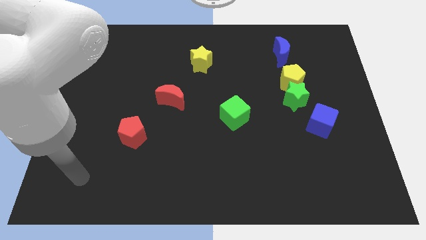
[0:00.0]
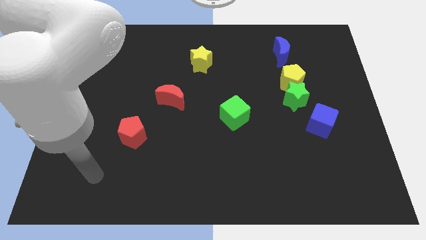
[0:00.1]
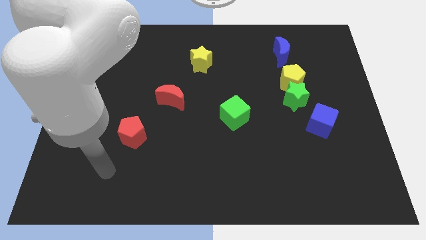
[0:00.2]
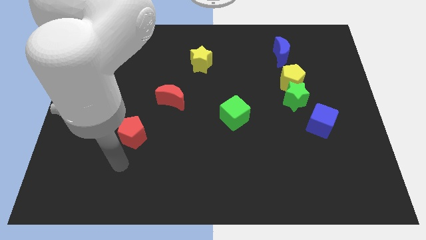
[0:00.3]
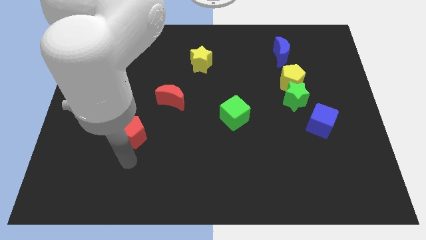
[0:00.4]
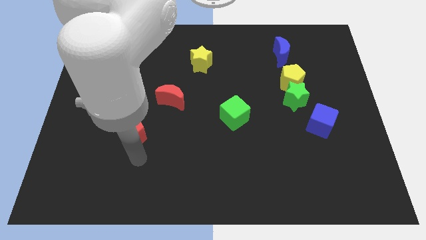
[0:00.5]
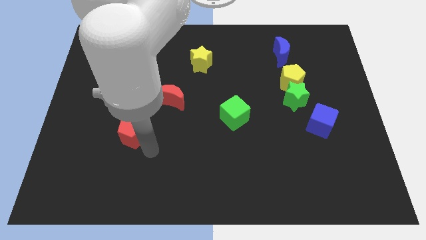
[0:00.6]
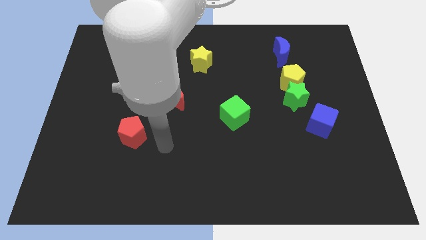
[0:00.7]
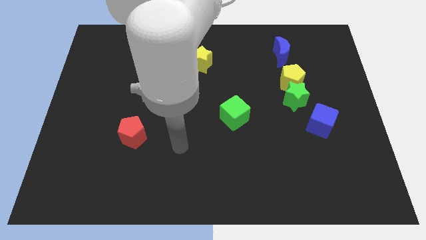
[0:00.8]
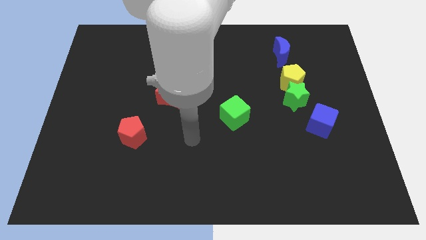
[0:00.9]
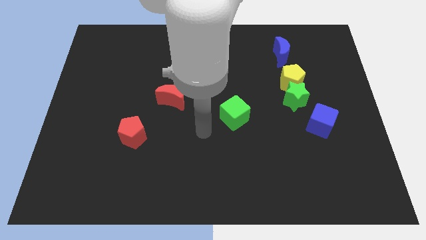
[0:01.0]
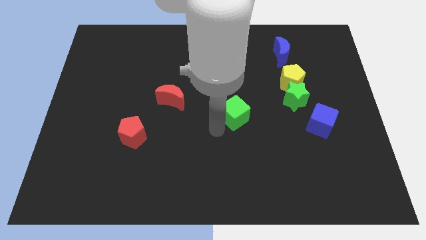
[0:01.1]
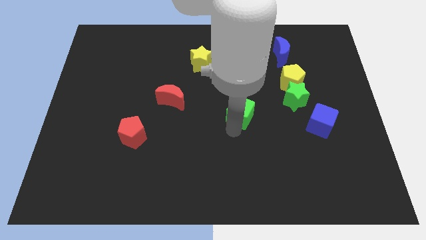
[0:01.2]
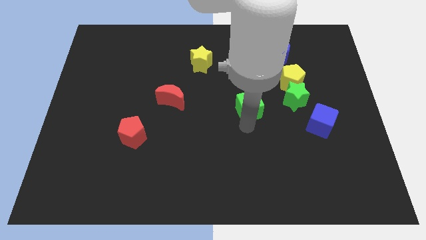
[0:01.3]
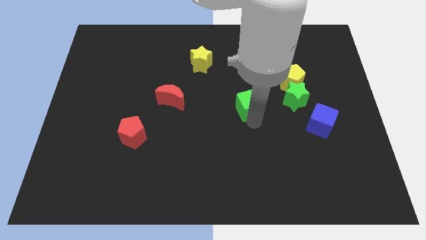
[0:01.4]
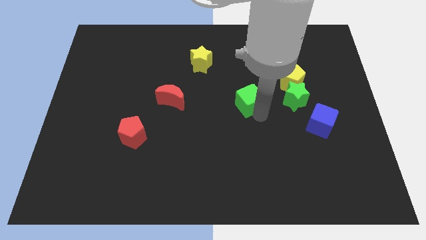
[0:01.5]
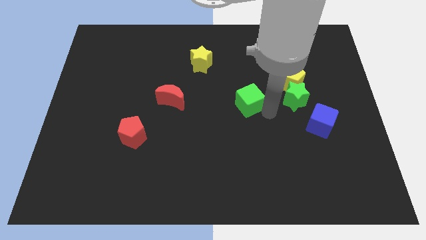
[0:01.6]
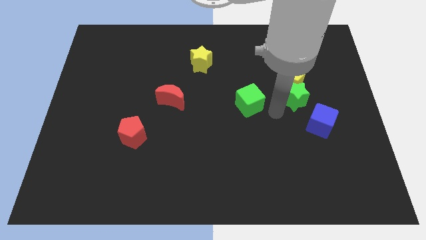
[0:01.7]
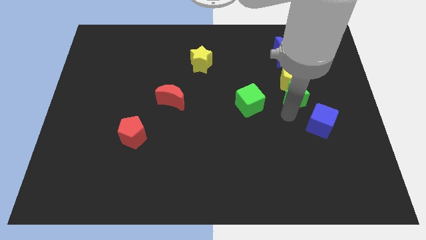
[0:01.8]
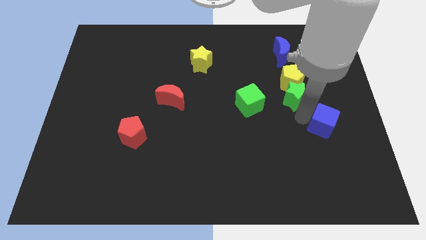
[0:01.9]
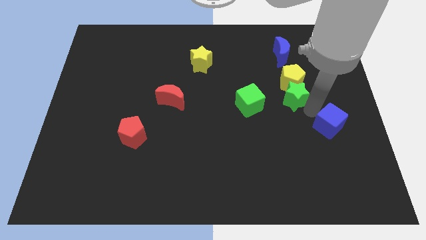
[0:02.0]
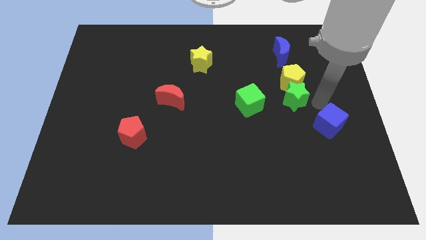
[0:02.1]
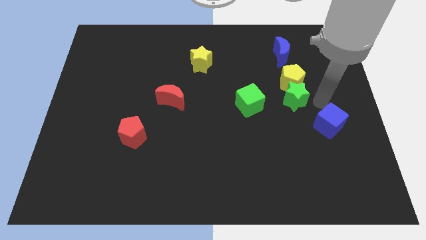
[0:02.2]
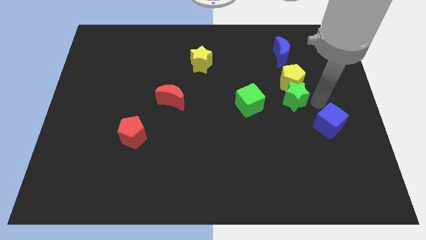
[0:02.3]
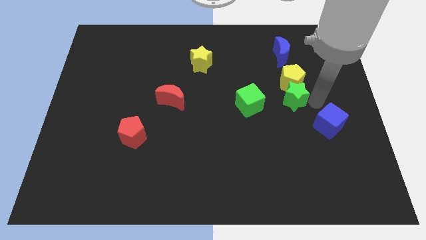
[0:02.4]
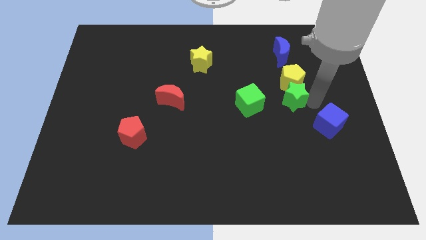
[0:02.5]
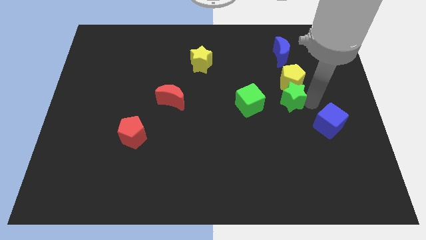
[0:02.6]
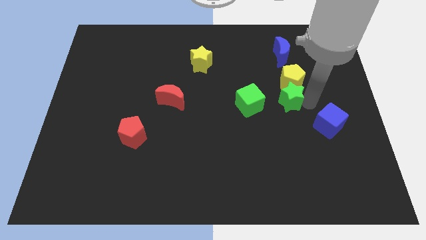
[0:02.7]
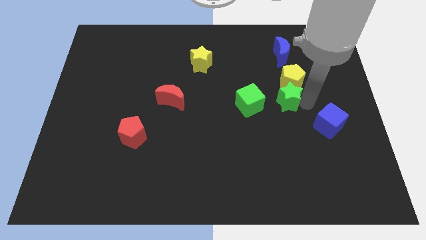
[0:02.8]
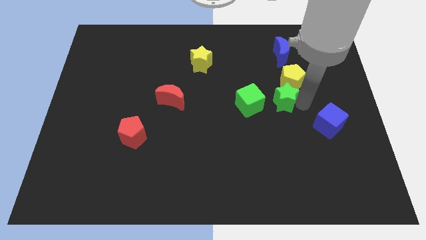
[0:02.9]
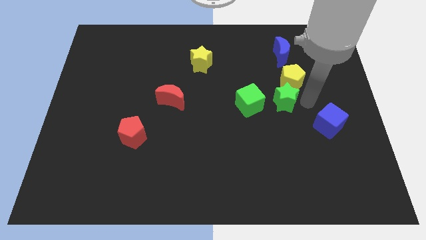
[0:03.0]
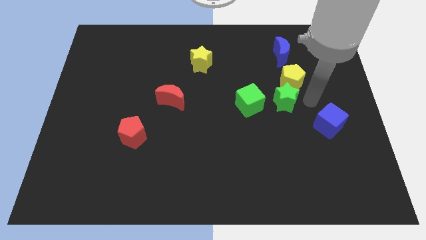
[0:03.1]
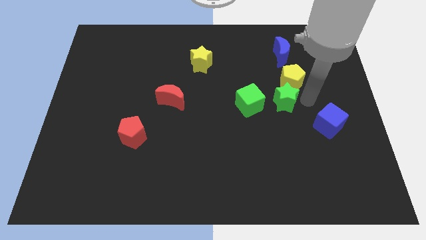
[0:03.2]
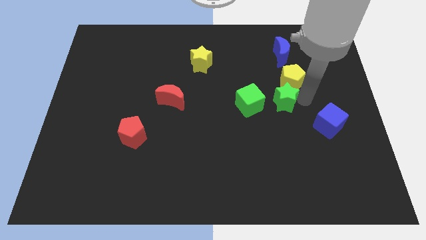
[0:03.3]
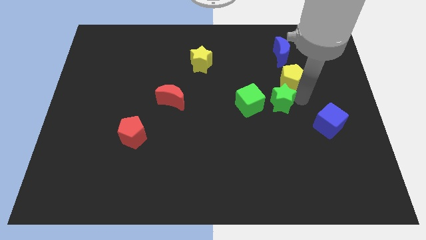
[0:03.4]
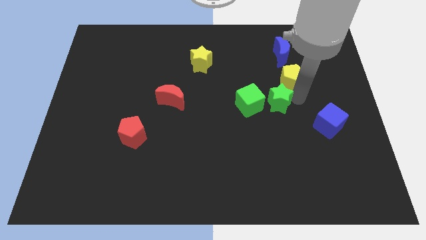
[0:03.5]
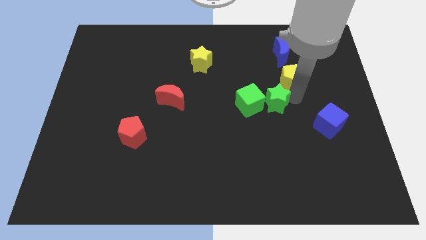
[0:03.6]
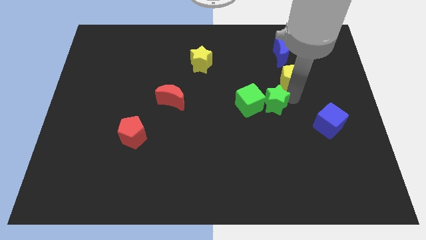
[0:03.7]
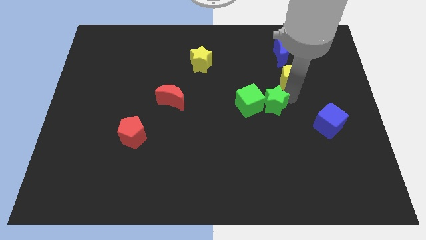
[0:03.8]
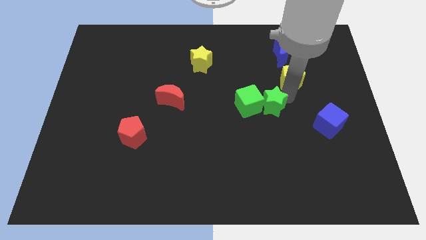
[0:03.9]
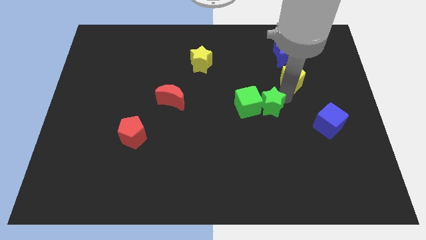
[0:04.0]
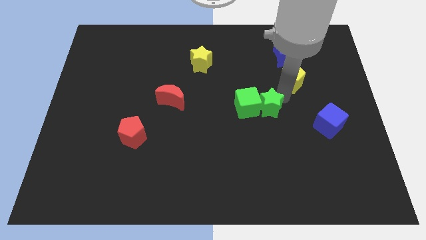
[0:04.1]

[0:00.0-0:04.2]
separate the green star from the yellow pentagon and blue cube

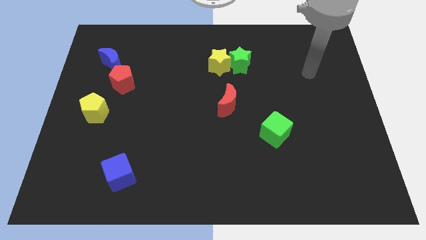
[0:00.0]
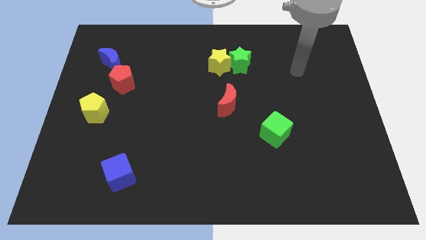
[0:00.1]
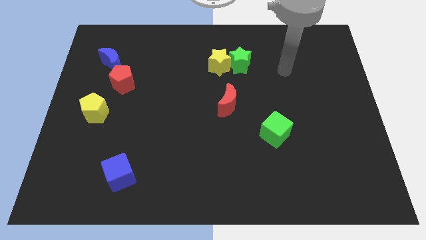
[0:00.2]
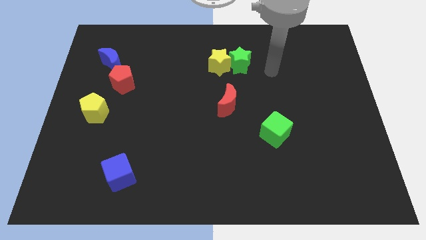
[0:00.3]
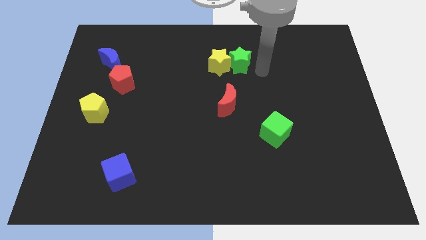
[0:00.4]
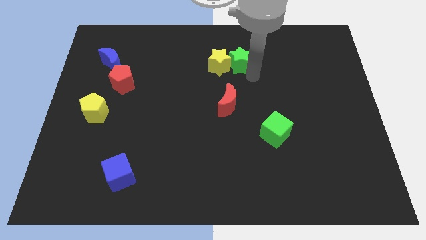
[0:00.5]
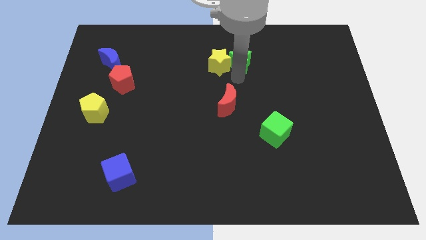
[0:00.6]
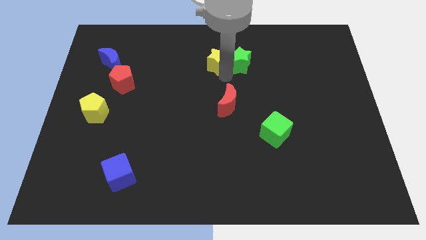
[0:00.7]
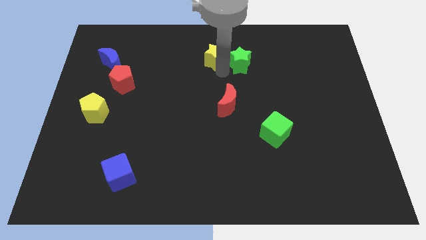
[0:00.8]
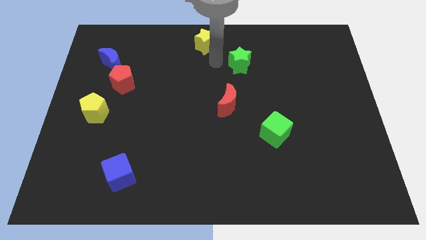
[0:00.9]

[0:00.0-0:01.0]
move the green star away from the yellow star

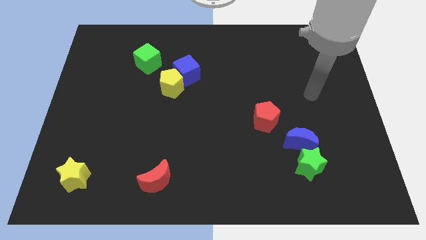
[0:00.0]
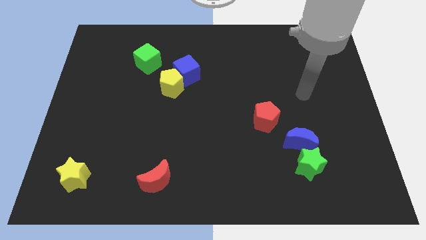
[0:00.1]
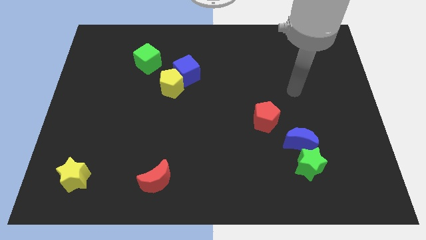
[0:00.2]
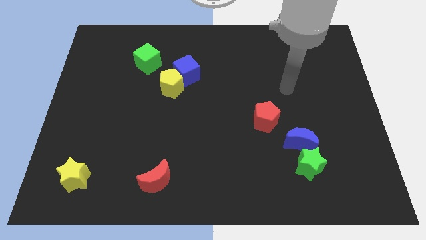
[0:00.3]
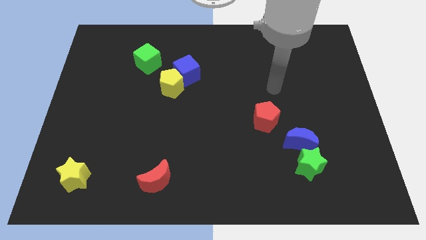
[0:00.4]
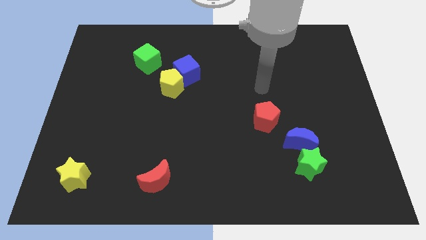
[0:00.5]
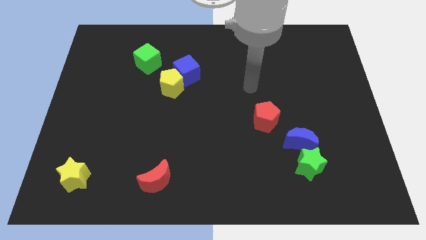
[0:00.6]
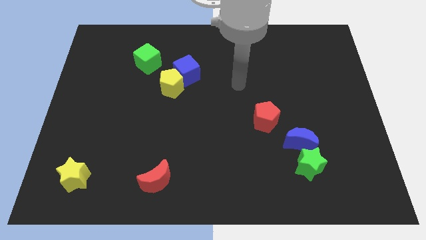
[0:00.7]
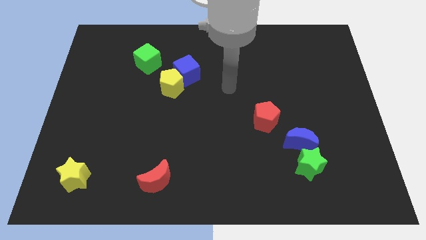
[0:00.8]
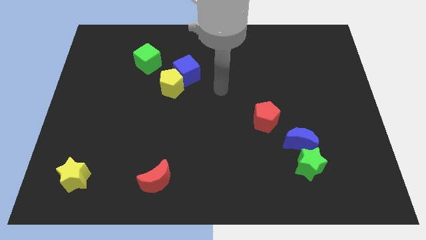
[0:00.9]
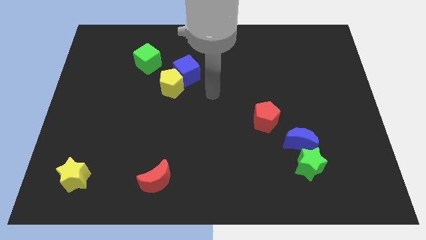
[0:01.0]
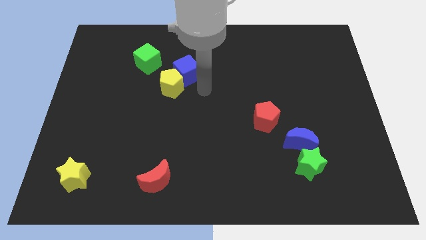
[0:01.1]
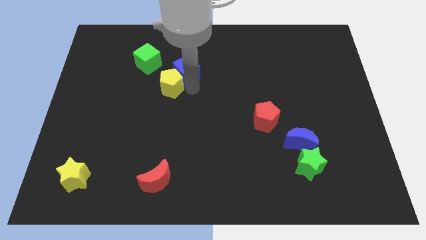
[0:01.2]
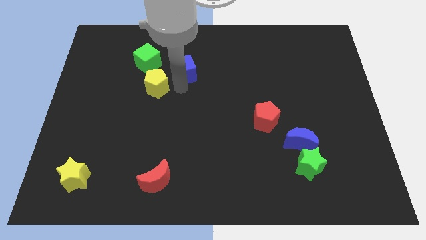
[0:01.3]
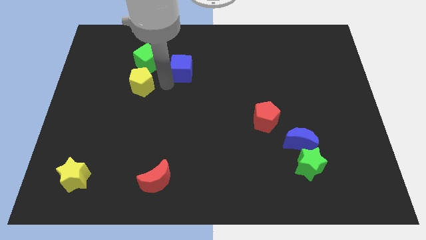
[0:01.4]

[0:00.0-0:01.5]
pull the blue cube apart from the yellow pentagon

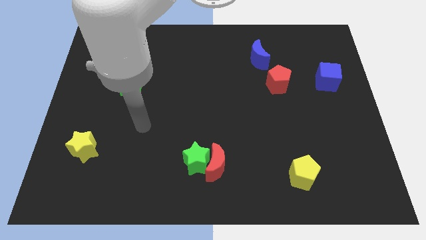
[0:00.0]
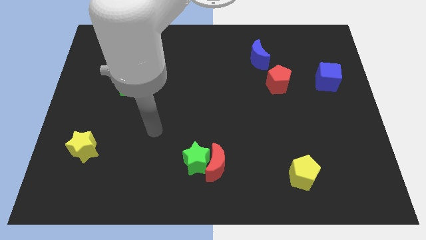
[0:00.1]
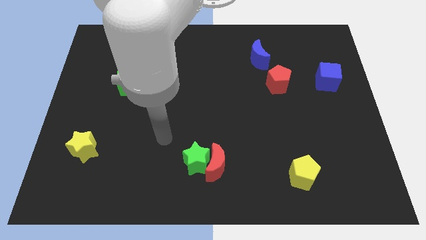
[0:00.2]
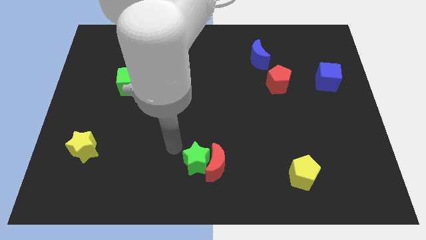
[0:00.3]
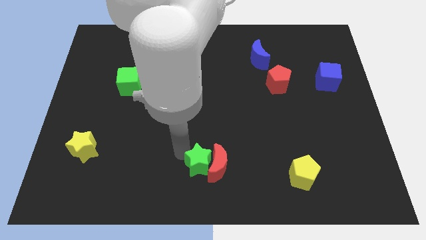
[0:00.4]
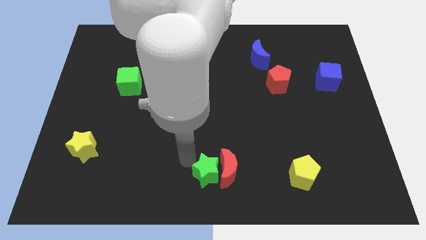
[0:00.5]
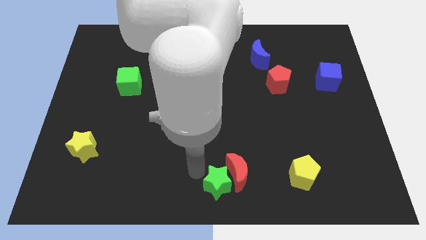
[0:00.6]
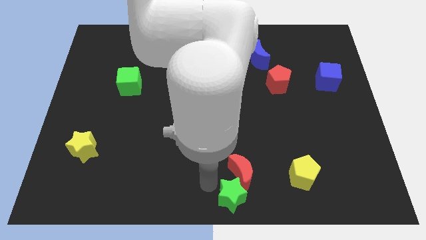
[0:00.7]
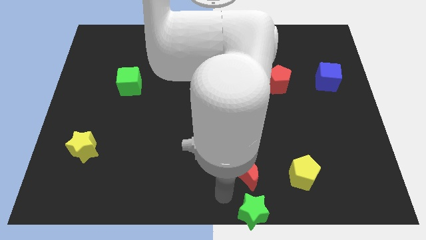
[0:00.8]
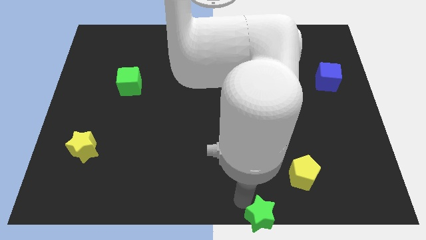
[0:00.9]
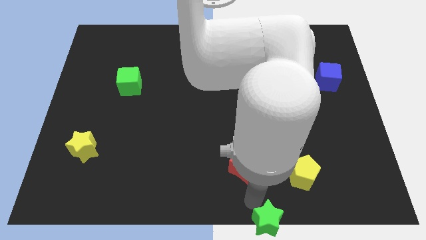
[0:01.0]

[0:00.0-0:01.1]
separate the red moon from the green star

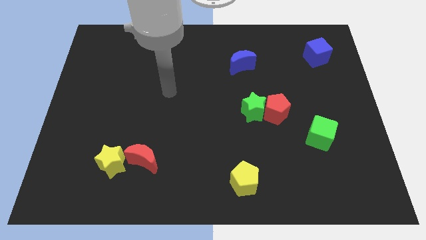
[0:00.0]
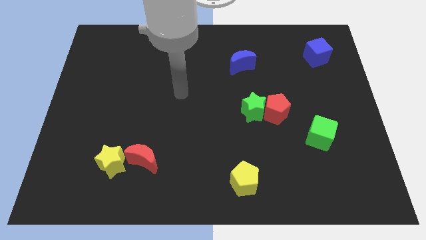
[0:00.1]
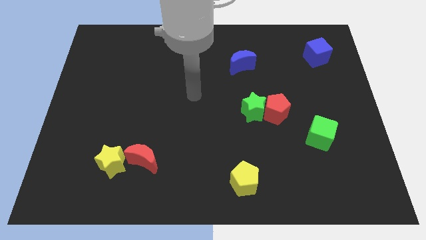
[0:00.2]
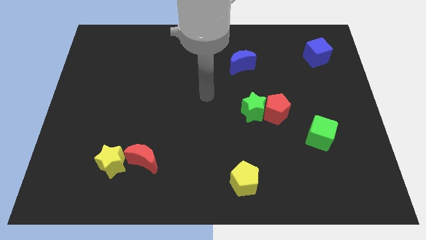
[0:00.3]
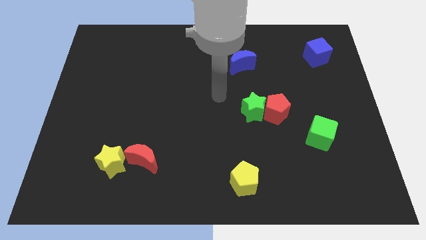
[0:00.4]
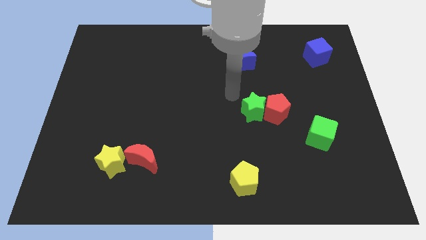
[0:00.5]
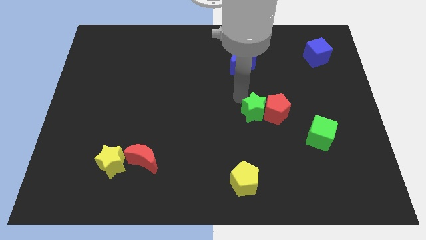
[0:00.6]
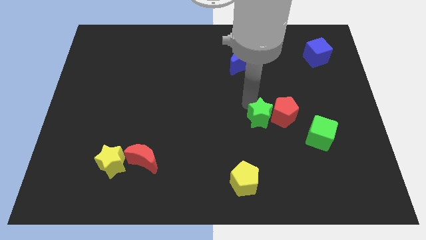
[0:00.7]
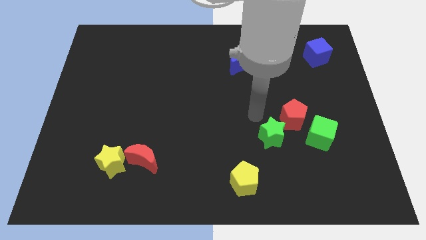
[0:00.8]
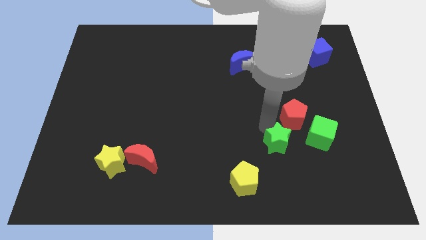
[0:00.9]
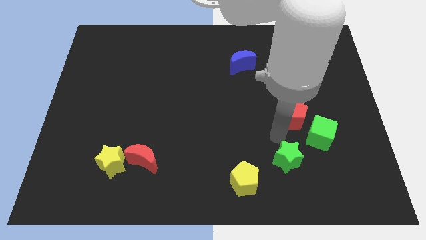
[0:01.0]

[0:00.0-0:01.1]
pull the red pentagon apart from the green star
